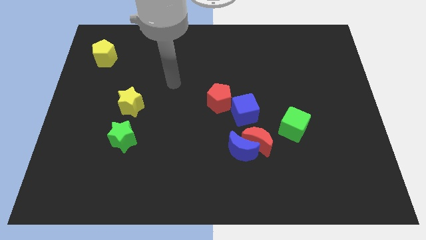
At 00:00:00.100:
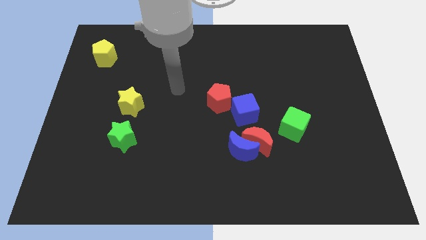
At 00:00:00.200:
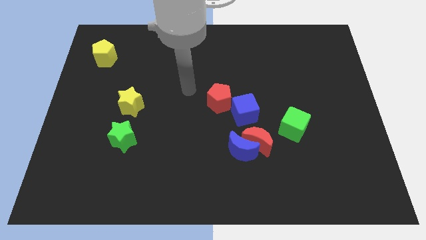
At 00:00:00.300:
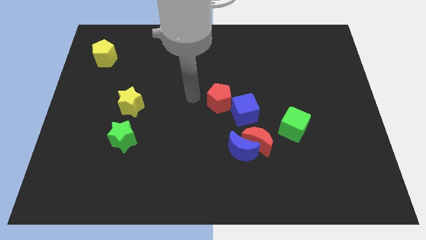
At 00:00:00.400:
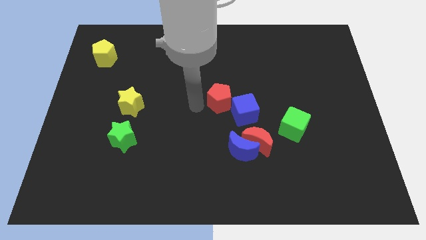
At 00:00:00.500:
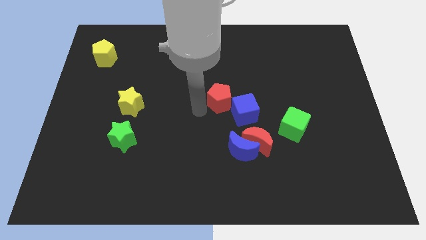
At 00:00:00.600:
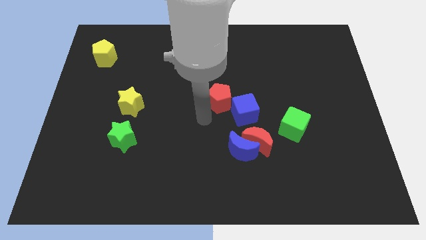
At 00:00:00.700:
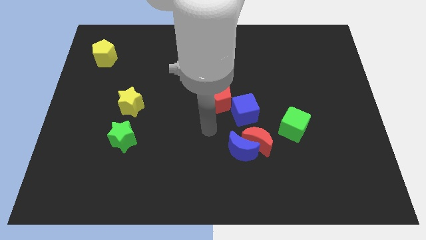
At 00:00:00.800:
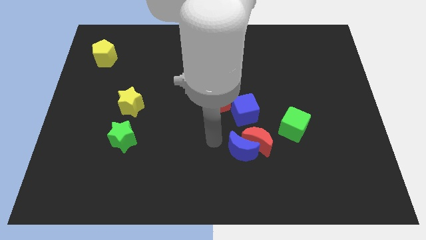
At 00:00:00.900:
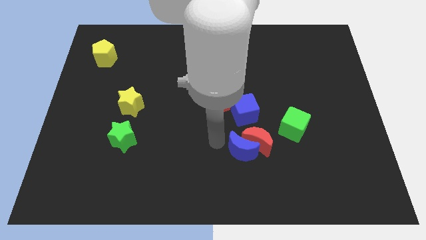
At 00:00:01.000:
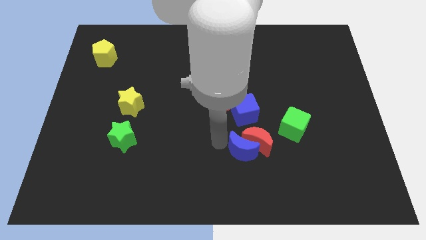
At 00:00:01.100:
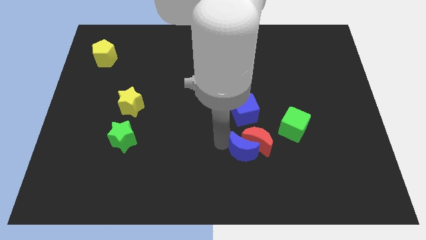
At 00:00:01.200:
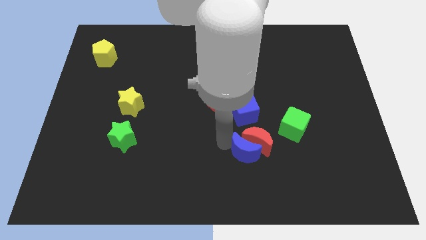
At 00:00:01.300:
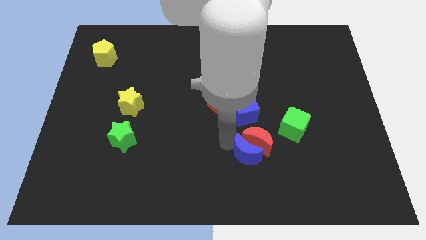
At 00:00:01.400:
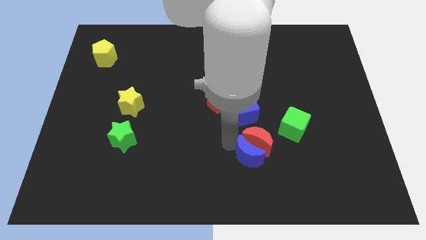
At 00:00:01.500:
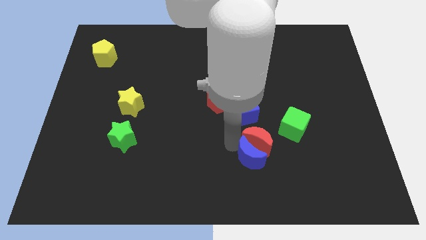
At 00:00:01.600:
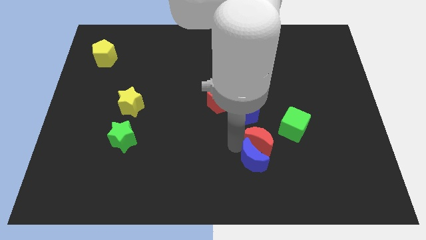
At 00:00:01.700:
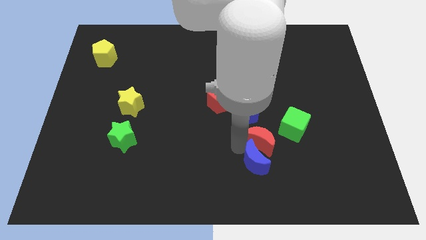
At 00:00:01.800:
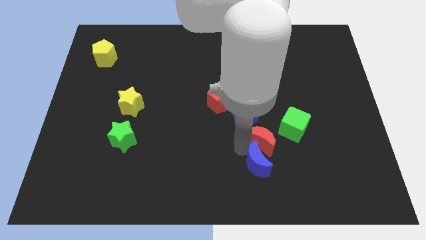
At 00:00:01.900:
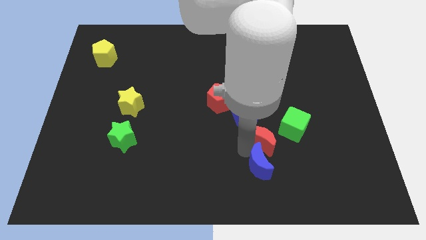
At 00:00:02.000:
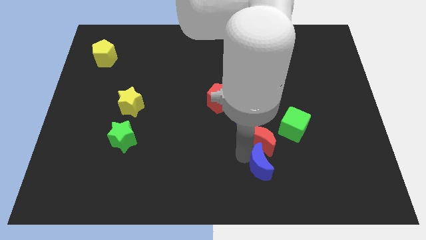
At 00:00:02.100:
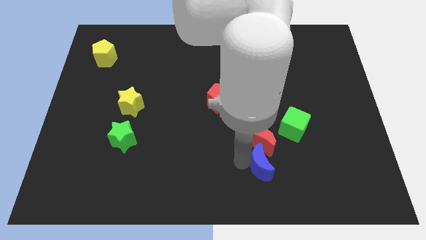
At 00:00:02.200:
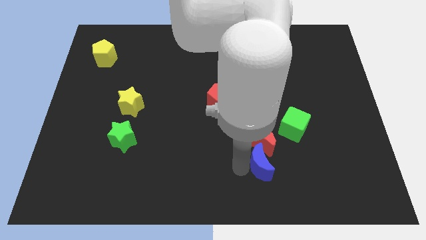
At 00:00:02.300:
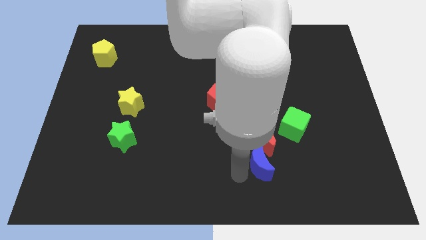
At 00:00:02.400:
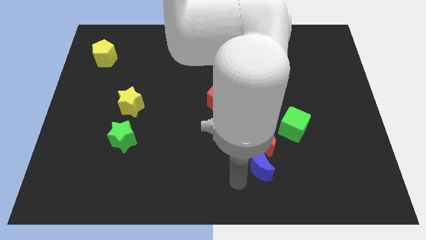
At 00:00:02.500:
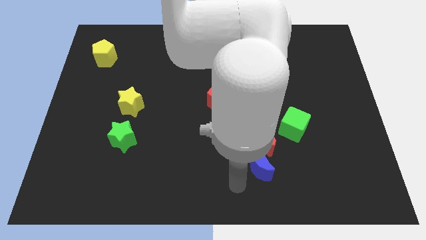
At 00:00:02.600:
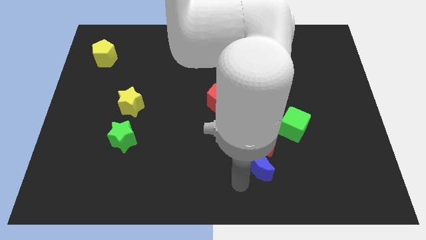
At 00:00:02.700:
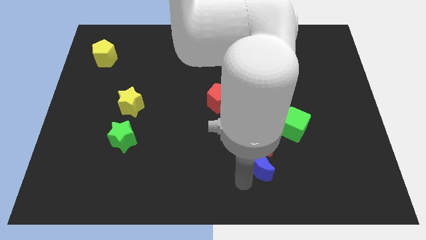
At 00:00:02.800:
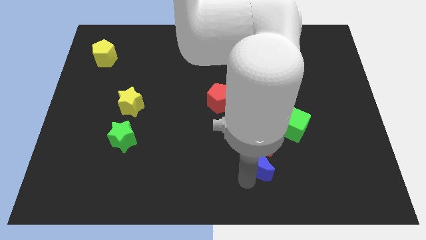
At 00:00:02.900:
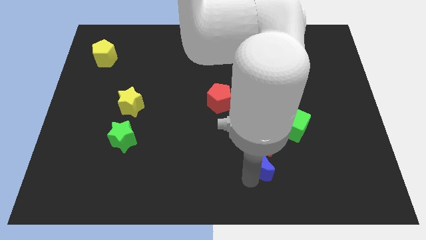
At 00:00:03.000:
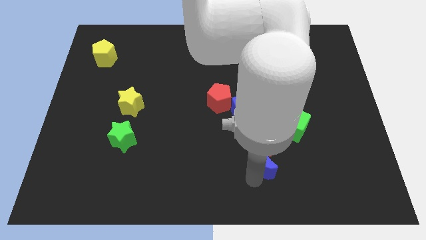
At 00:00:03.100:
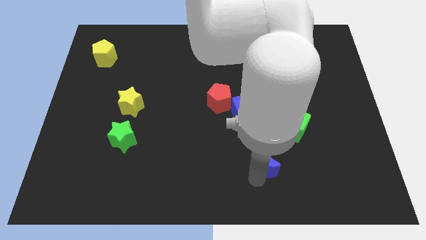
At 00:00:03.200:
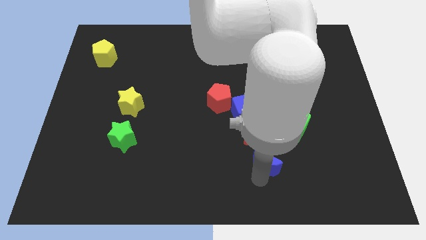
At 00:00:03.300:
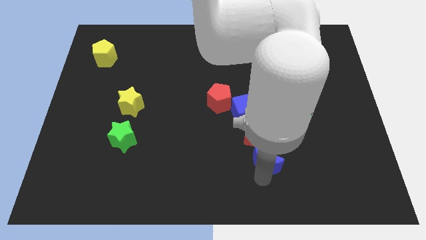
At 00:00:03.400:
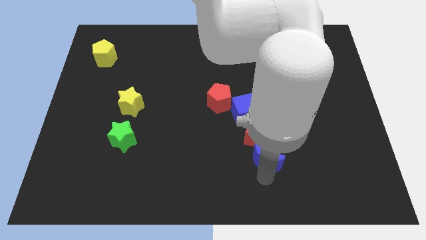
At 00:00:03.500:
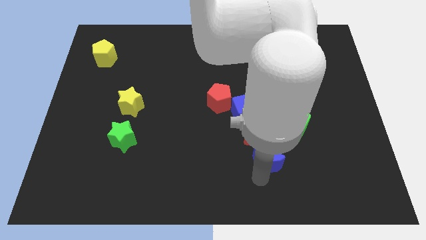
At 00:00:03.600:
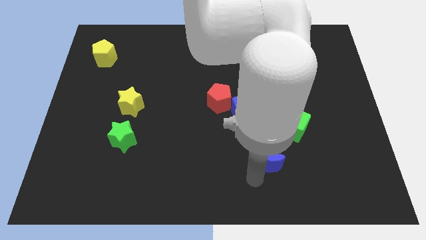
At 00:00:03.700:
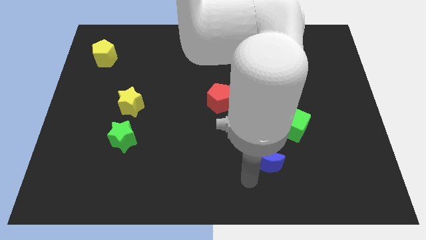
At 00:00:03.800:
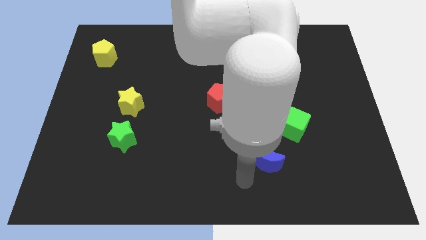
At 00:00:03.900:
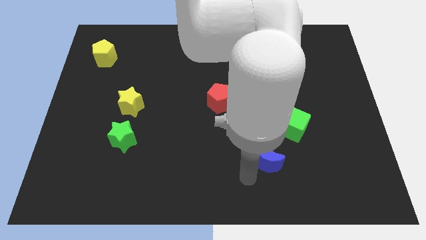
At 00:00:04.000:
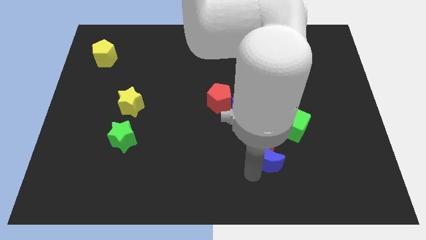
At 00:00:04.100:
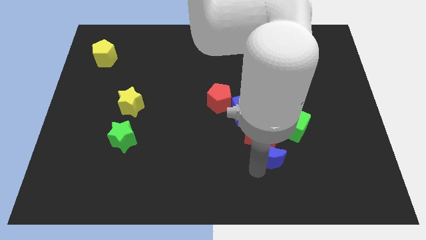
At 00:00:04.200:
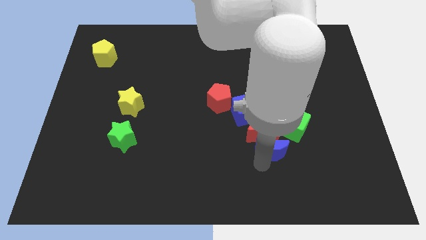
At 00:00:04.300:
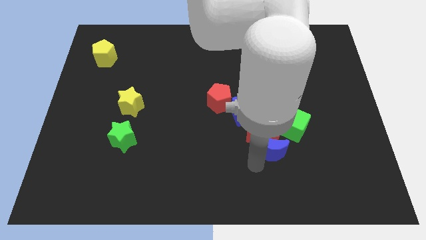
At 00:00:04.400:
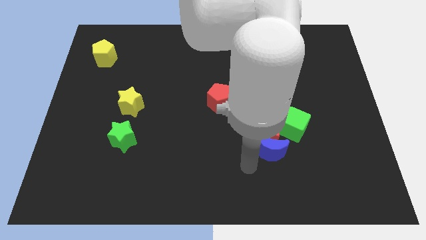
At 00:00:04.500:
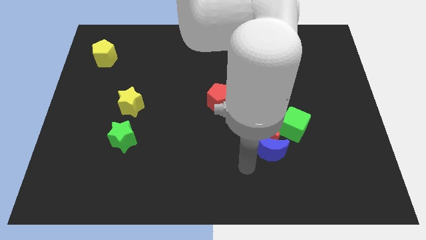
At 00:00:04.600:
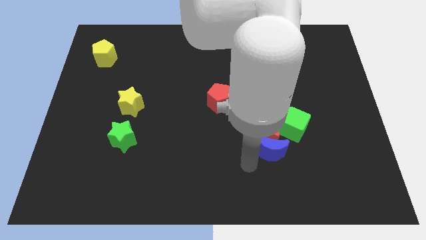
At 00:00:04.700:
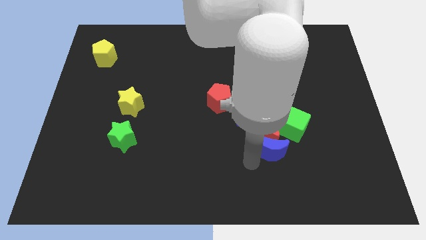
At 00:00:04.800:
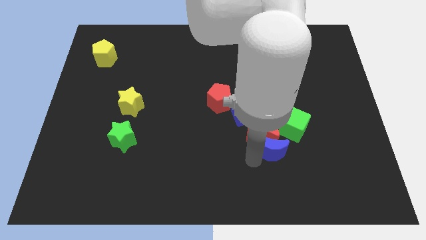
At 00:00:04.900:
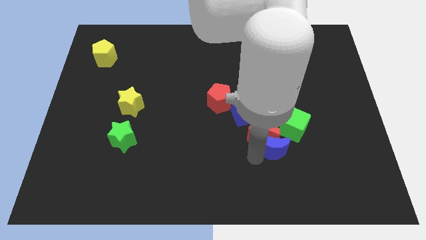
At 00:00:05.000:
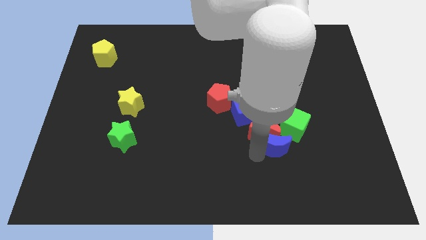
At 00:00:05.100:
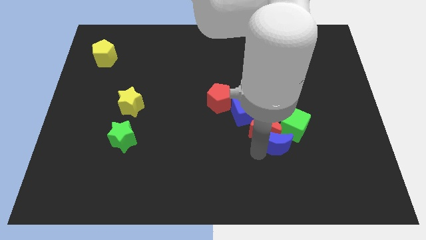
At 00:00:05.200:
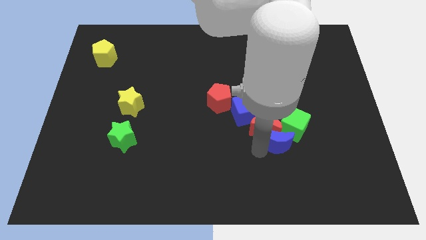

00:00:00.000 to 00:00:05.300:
slide the blue moon to the green cube

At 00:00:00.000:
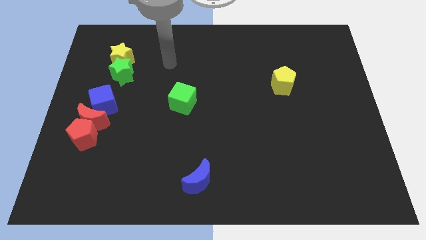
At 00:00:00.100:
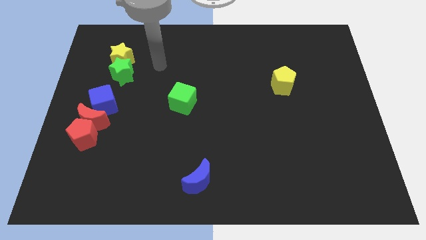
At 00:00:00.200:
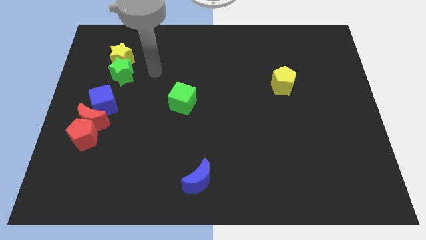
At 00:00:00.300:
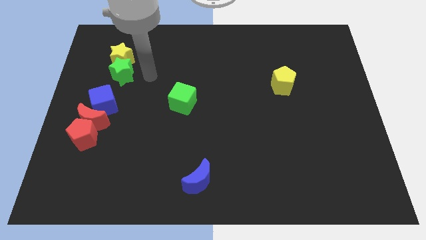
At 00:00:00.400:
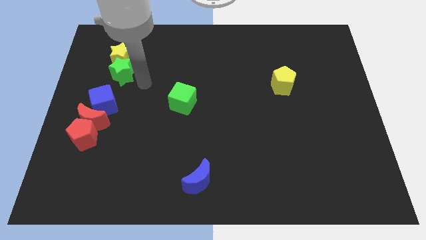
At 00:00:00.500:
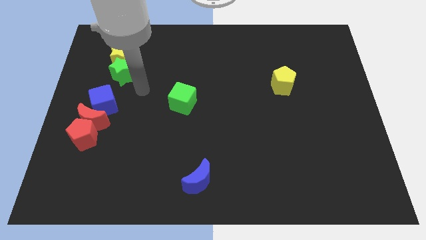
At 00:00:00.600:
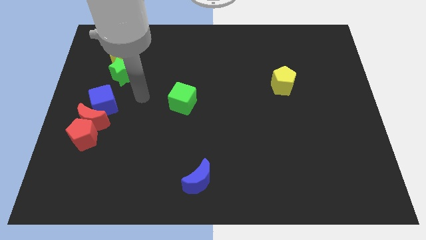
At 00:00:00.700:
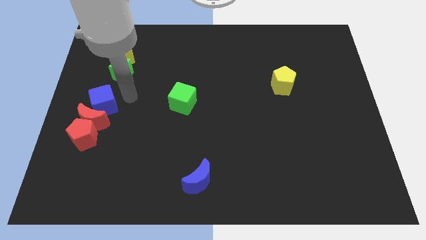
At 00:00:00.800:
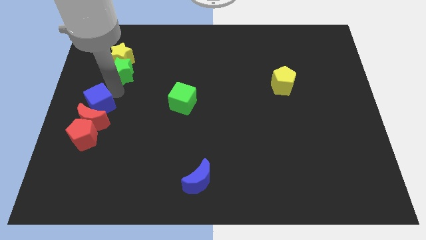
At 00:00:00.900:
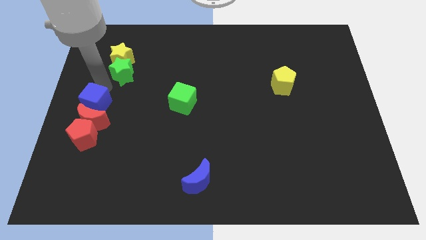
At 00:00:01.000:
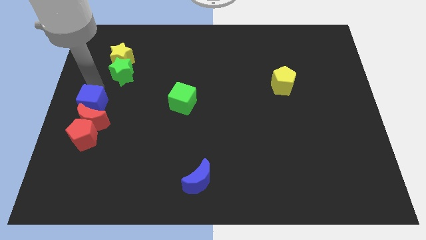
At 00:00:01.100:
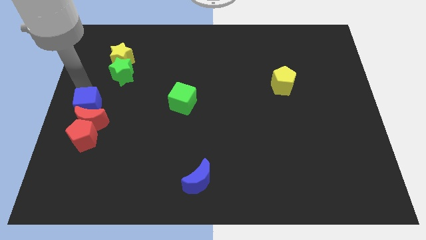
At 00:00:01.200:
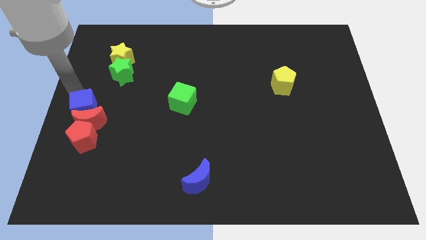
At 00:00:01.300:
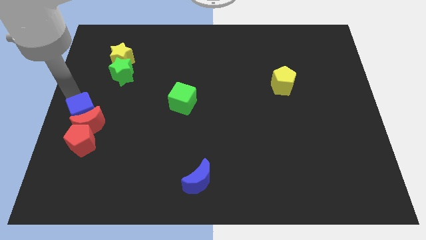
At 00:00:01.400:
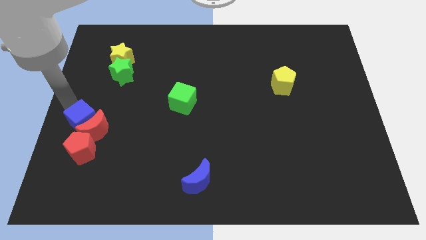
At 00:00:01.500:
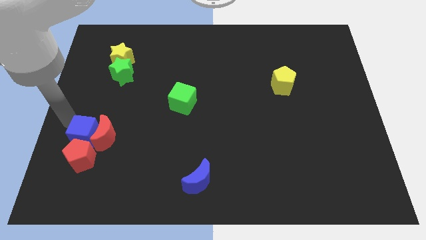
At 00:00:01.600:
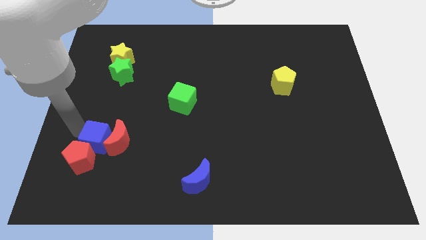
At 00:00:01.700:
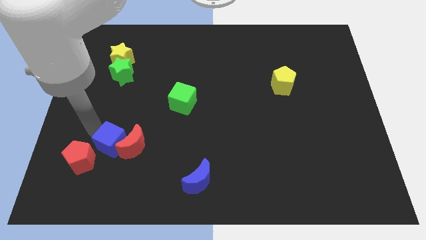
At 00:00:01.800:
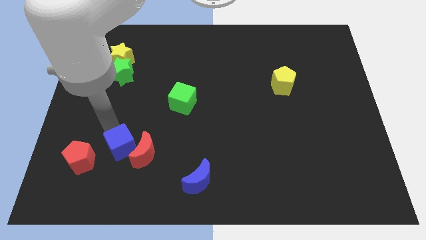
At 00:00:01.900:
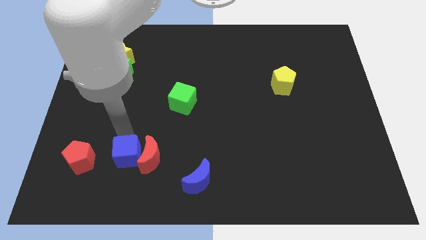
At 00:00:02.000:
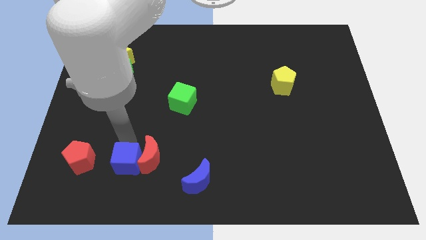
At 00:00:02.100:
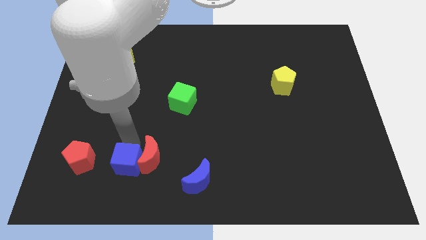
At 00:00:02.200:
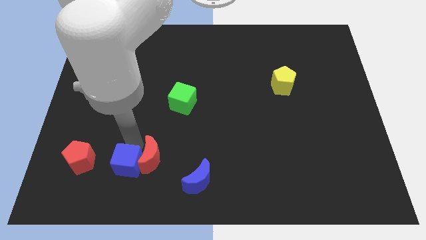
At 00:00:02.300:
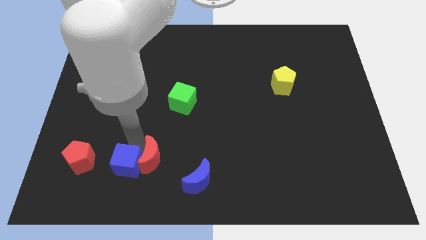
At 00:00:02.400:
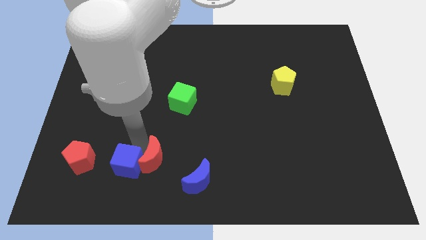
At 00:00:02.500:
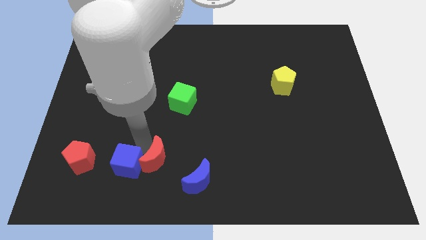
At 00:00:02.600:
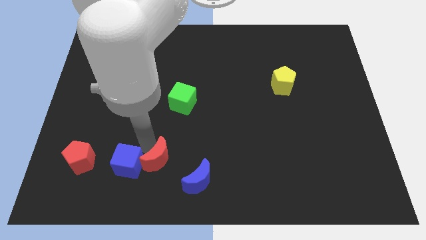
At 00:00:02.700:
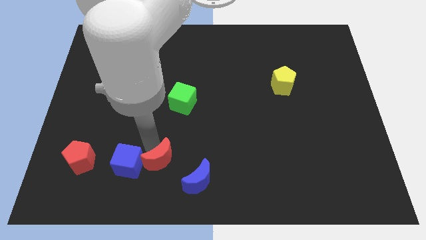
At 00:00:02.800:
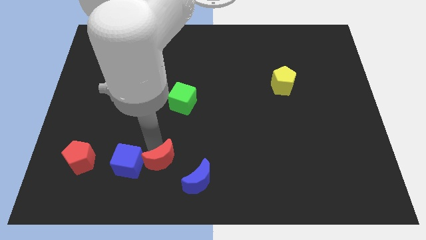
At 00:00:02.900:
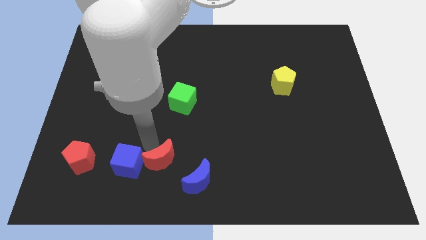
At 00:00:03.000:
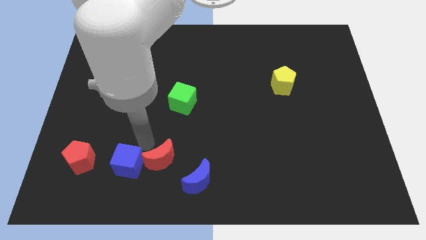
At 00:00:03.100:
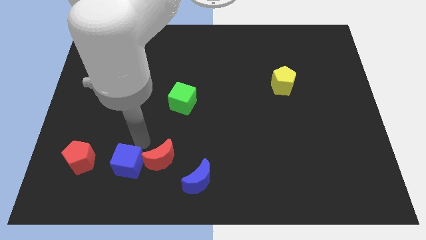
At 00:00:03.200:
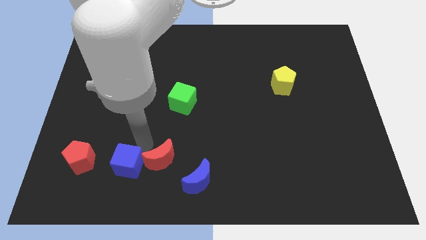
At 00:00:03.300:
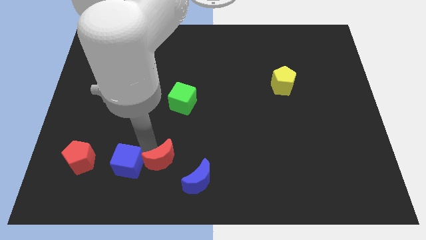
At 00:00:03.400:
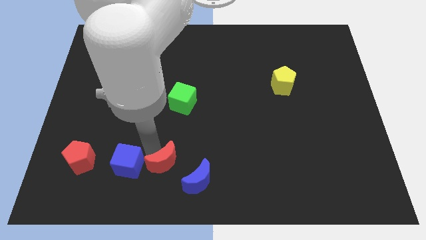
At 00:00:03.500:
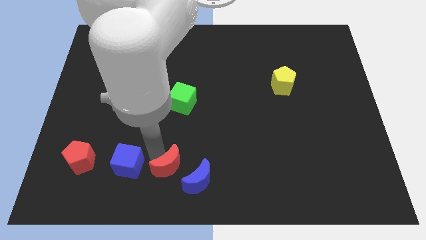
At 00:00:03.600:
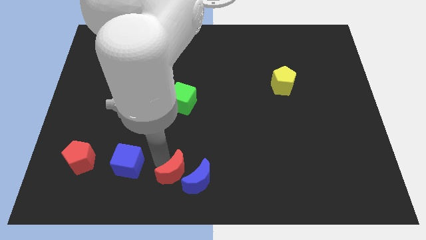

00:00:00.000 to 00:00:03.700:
slide the red moon to the blue moon
